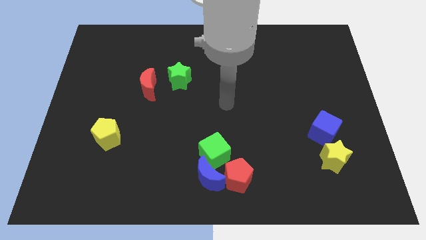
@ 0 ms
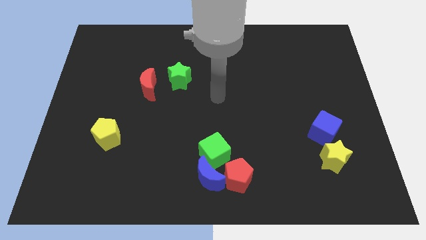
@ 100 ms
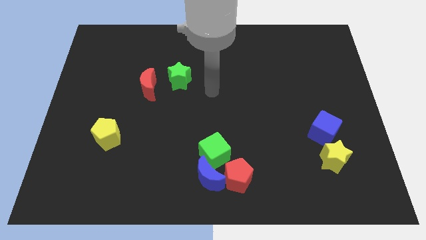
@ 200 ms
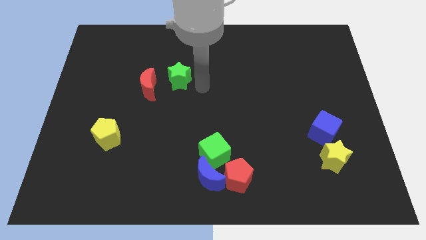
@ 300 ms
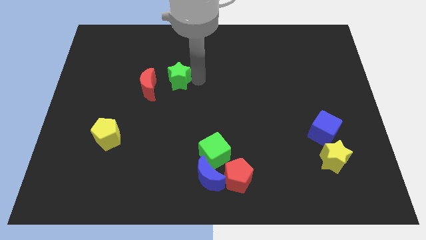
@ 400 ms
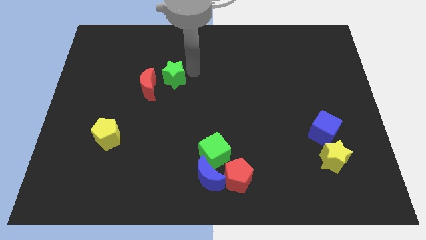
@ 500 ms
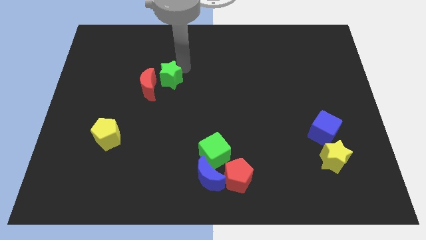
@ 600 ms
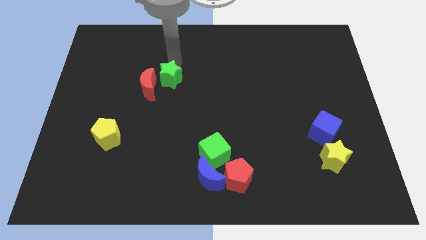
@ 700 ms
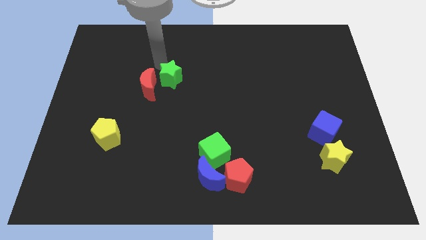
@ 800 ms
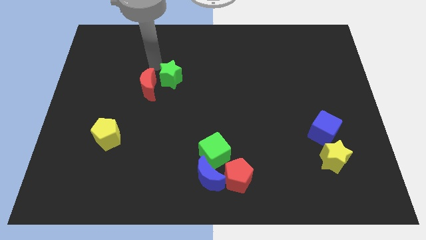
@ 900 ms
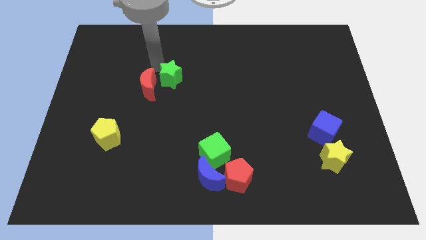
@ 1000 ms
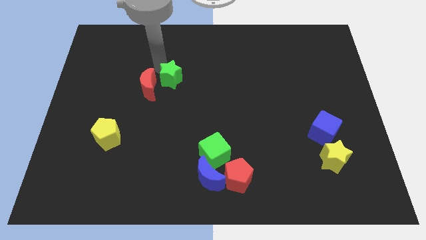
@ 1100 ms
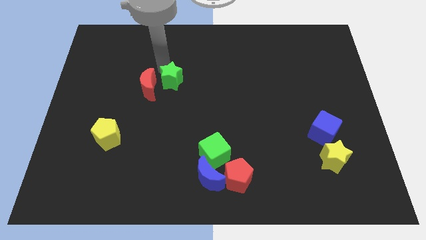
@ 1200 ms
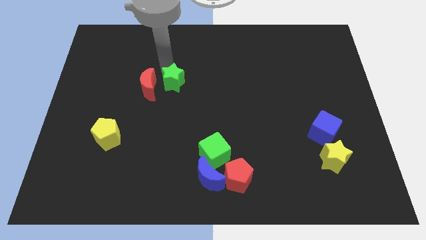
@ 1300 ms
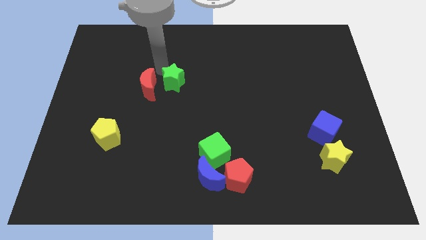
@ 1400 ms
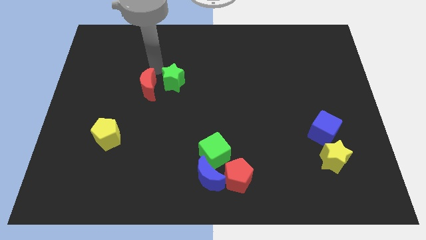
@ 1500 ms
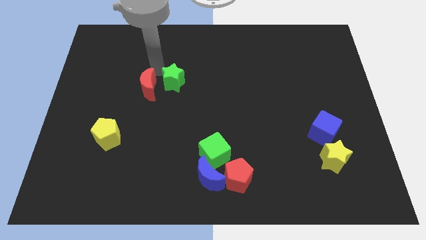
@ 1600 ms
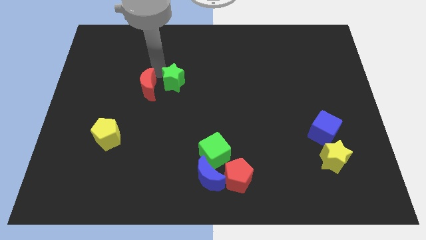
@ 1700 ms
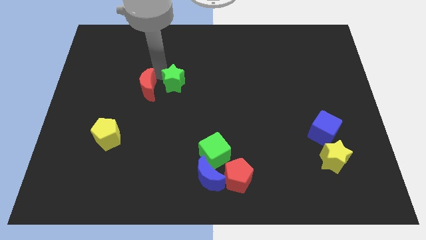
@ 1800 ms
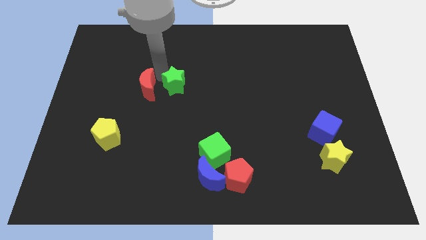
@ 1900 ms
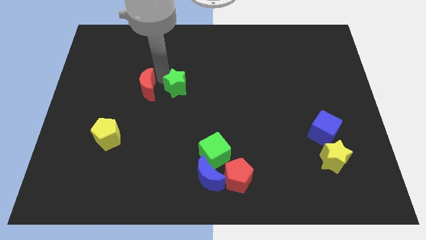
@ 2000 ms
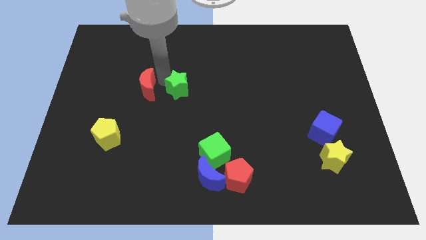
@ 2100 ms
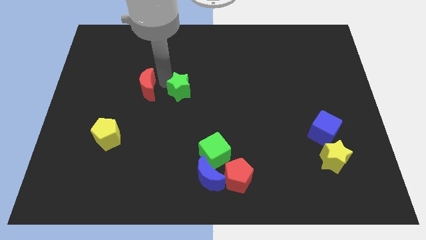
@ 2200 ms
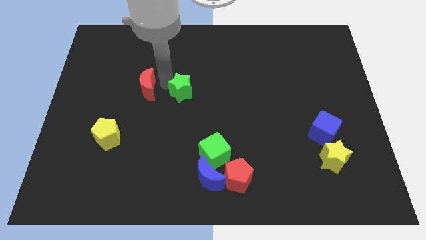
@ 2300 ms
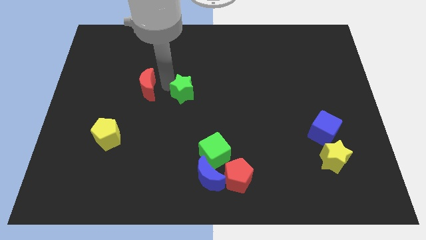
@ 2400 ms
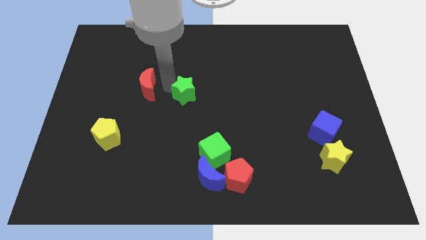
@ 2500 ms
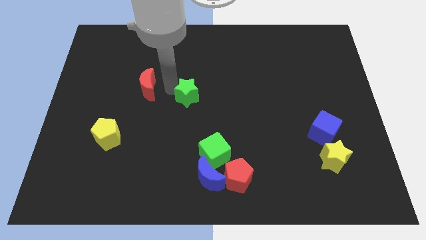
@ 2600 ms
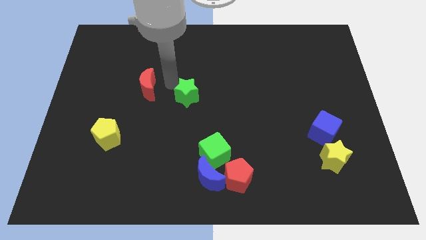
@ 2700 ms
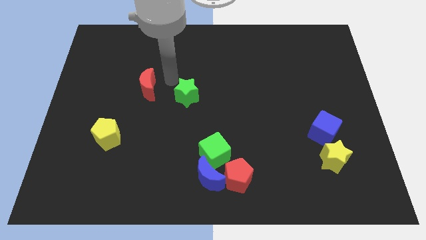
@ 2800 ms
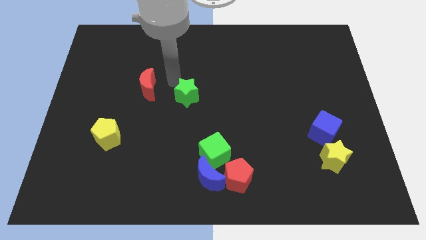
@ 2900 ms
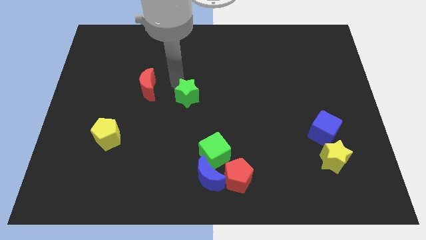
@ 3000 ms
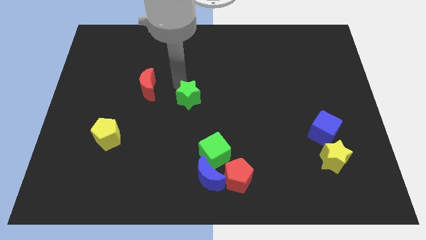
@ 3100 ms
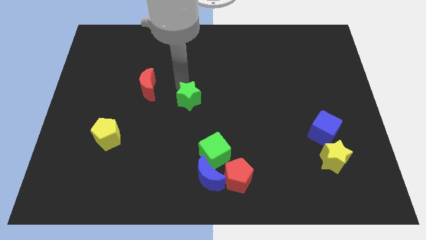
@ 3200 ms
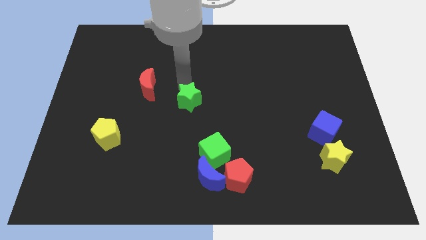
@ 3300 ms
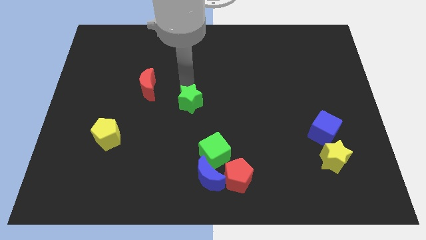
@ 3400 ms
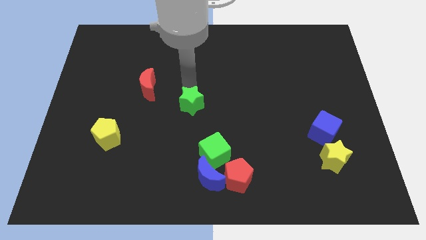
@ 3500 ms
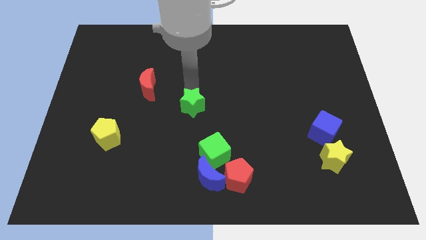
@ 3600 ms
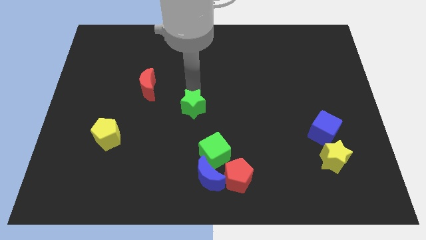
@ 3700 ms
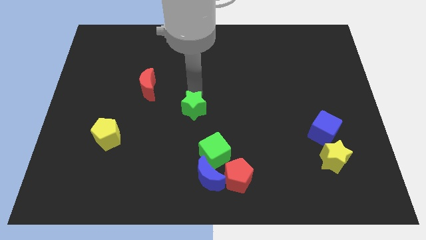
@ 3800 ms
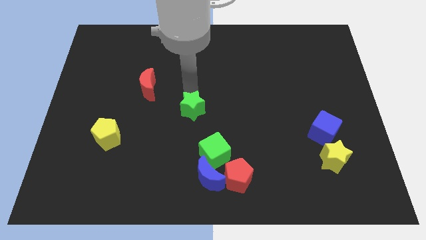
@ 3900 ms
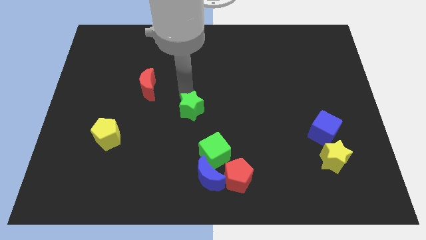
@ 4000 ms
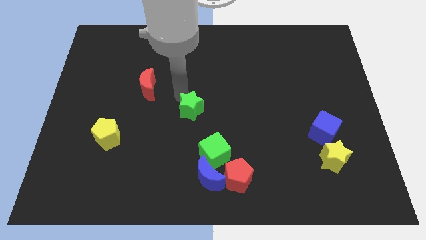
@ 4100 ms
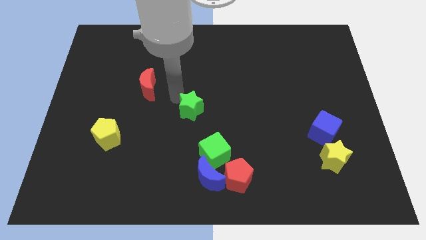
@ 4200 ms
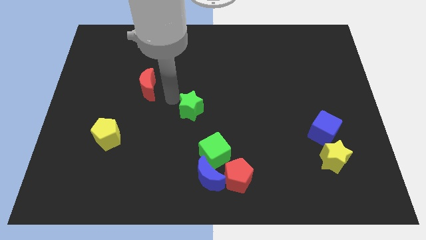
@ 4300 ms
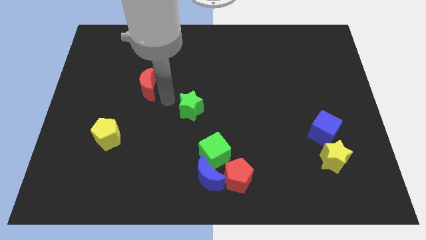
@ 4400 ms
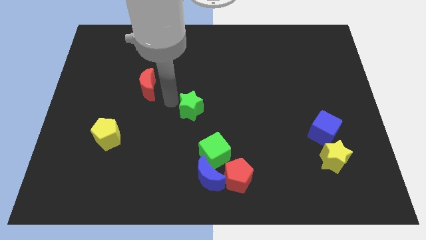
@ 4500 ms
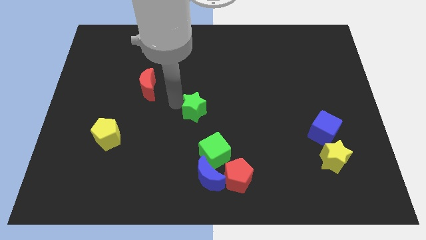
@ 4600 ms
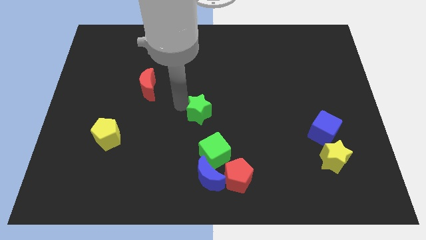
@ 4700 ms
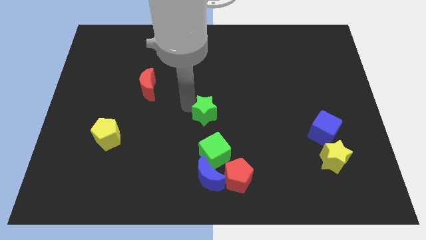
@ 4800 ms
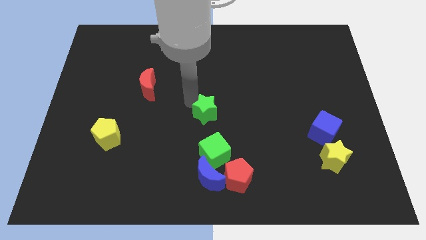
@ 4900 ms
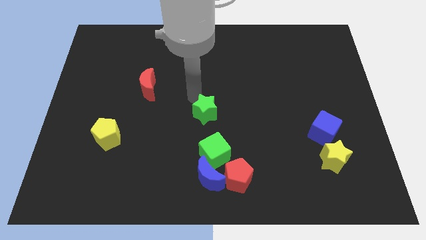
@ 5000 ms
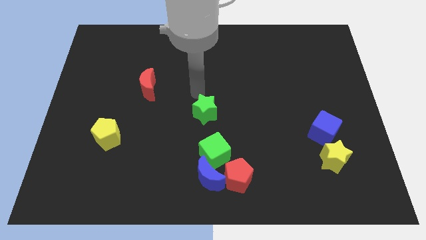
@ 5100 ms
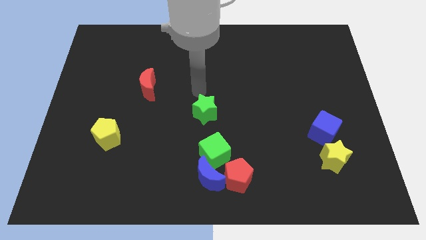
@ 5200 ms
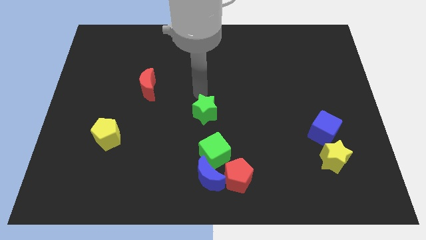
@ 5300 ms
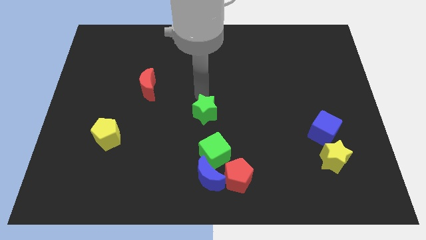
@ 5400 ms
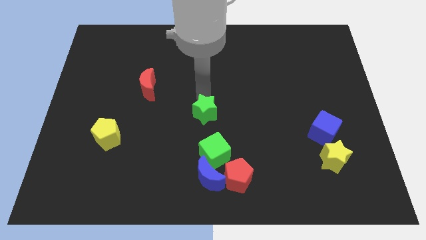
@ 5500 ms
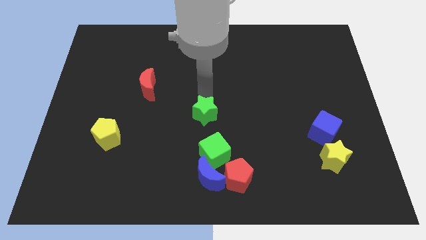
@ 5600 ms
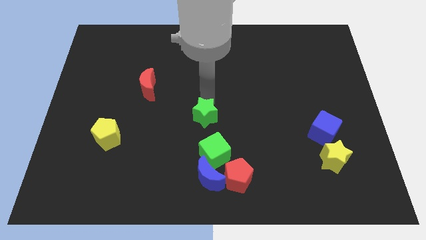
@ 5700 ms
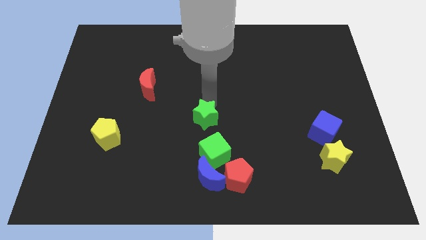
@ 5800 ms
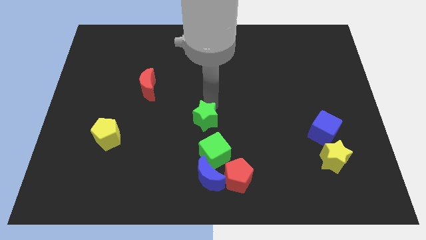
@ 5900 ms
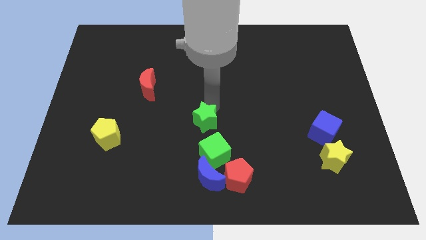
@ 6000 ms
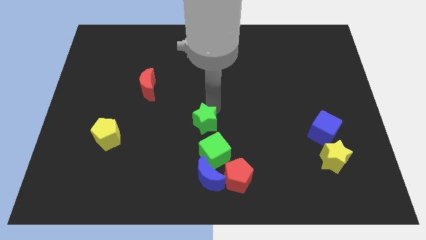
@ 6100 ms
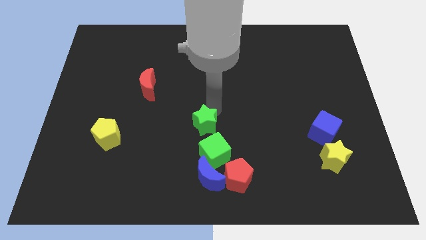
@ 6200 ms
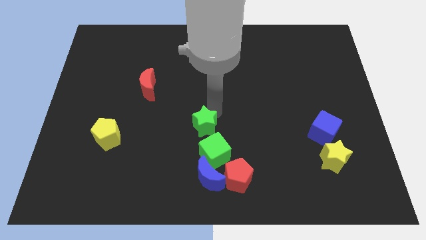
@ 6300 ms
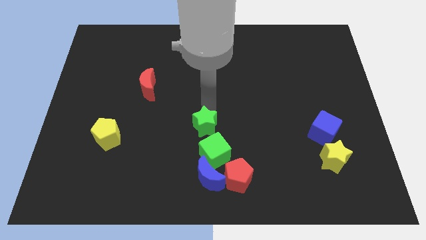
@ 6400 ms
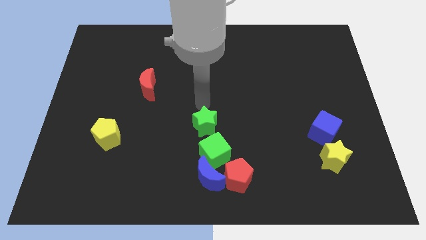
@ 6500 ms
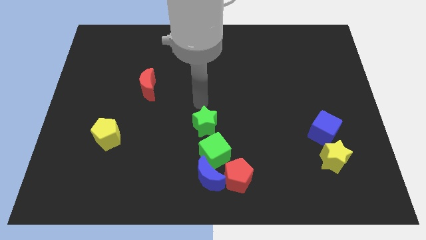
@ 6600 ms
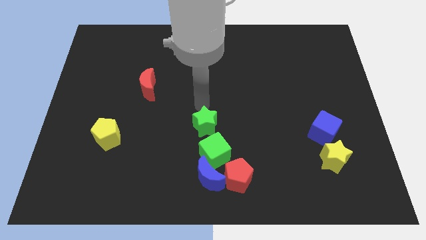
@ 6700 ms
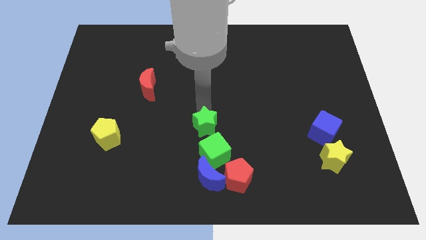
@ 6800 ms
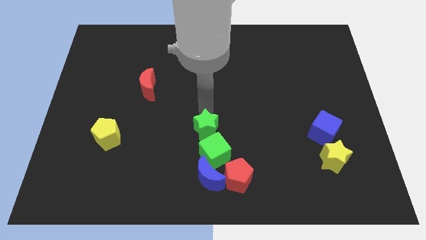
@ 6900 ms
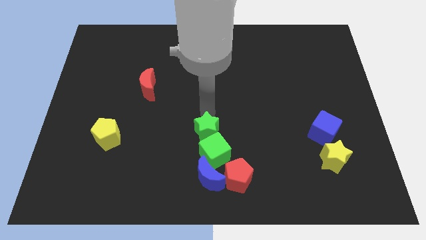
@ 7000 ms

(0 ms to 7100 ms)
push the green star next to the green cube

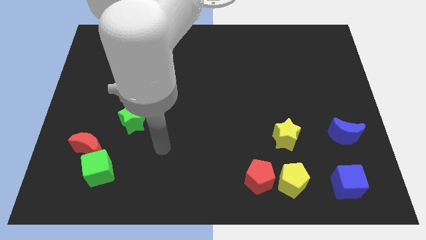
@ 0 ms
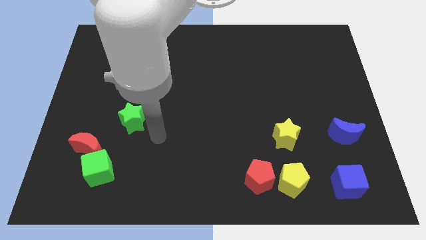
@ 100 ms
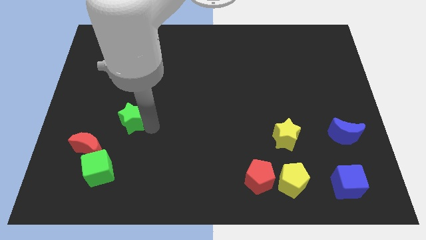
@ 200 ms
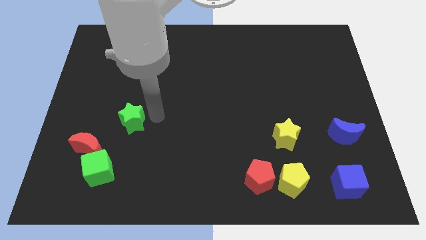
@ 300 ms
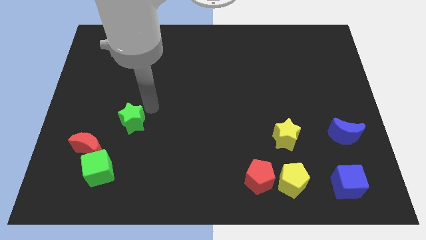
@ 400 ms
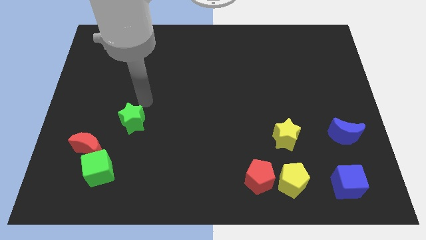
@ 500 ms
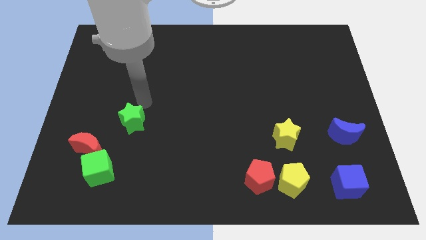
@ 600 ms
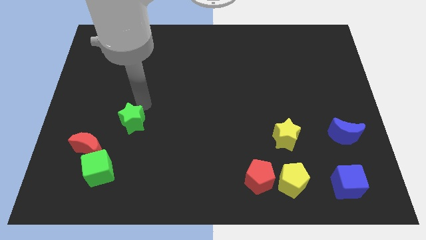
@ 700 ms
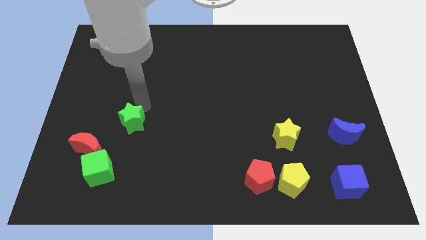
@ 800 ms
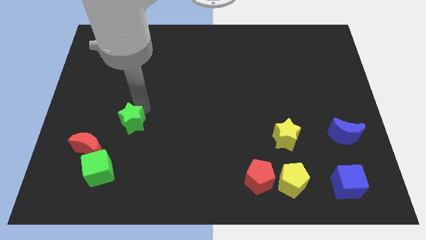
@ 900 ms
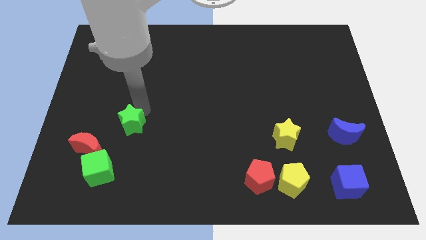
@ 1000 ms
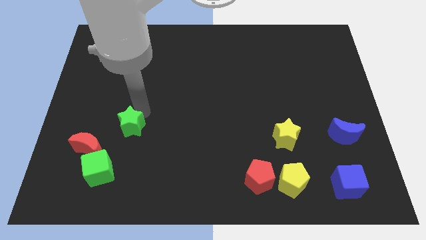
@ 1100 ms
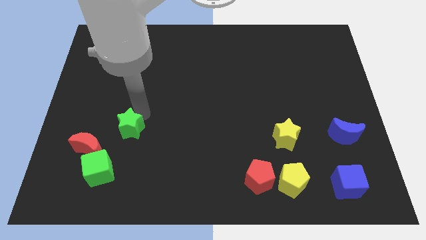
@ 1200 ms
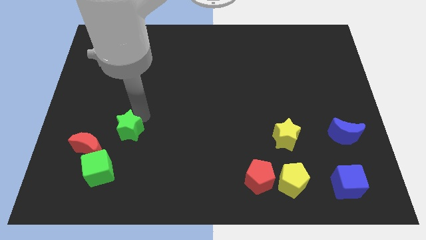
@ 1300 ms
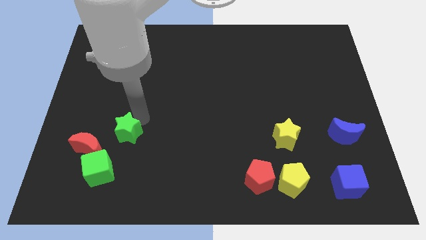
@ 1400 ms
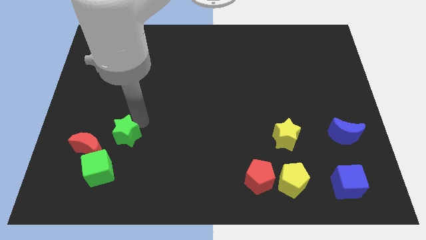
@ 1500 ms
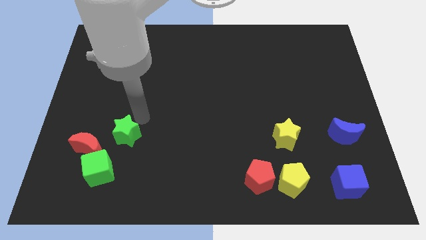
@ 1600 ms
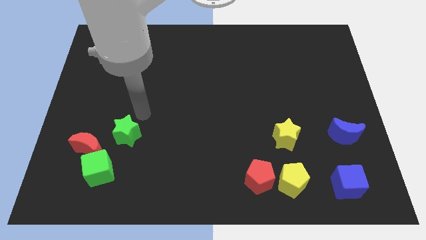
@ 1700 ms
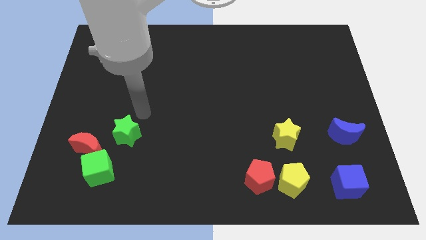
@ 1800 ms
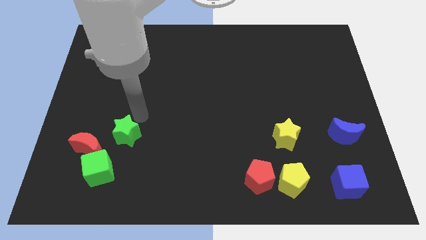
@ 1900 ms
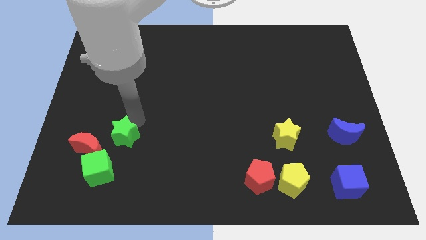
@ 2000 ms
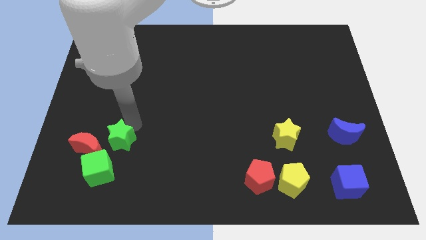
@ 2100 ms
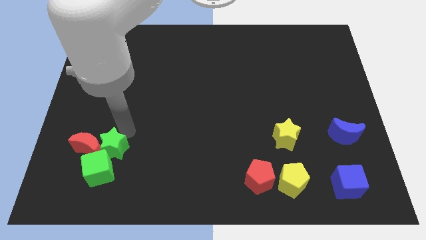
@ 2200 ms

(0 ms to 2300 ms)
push the green star close to the green cube
